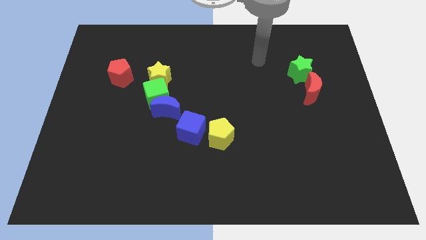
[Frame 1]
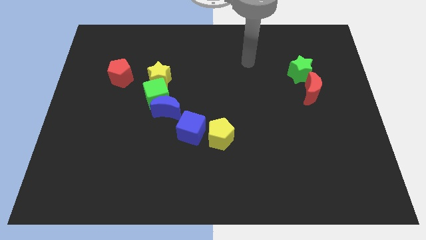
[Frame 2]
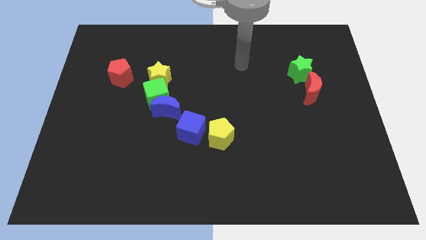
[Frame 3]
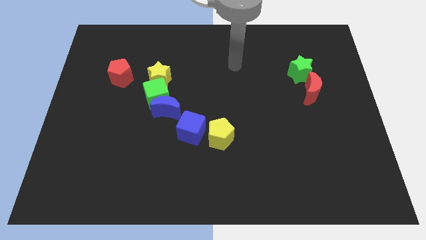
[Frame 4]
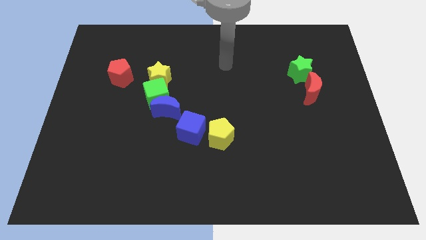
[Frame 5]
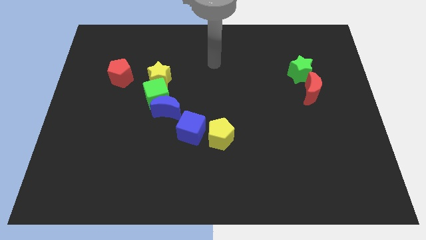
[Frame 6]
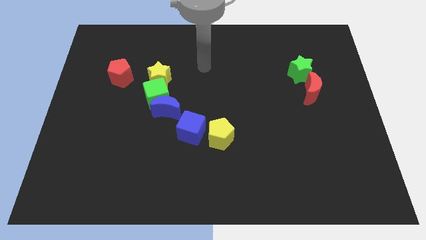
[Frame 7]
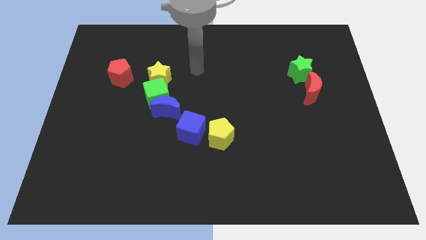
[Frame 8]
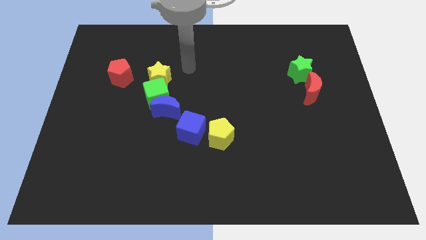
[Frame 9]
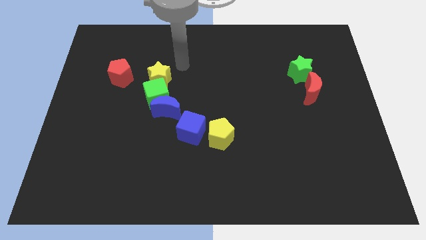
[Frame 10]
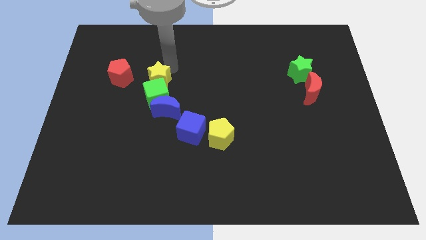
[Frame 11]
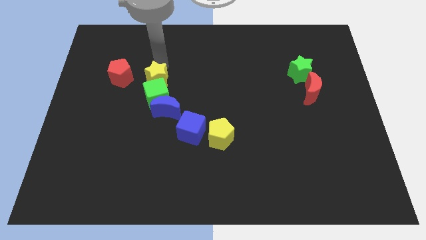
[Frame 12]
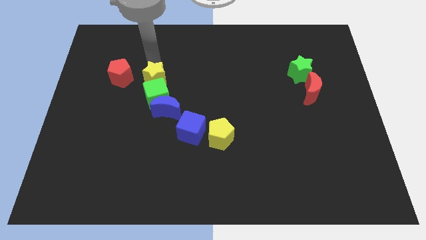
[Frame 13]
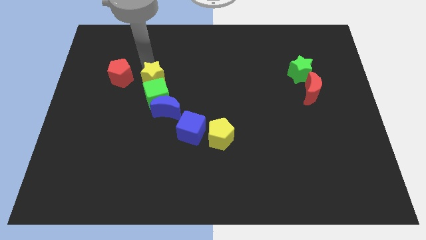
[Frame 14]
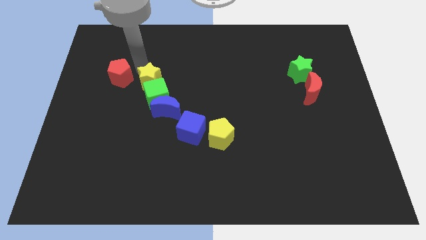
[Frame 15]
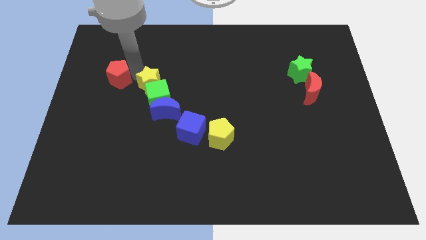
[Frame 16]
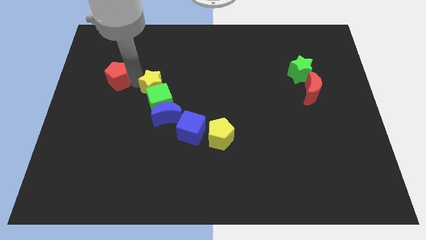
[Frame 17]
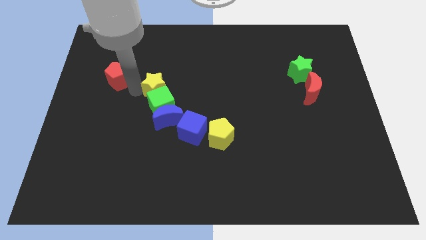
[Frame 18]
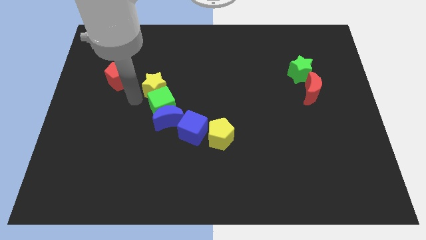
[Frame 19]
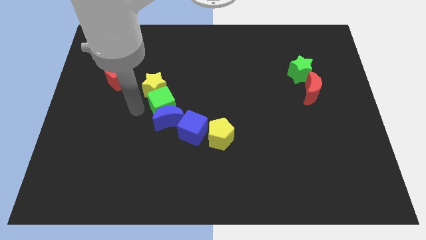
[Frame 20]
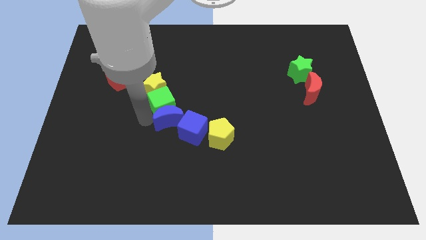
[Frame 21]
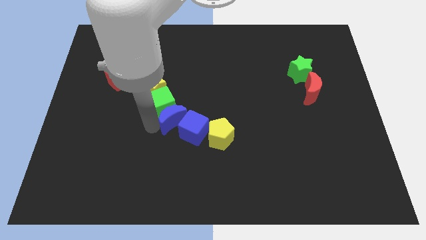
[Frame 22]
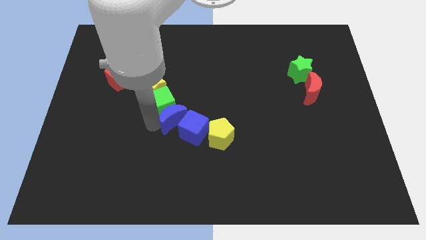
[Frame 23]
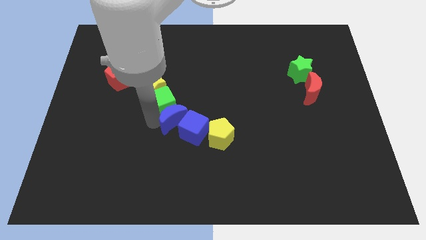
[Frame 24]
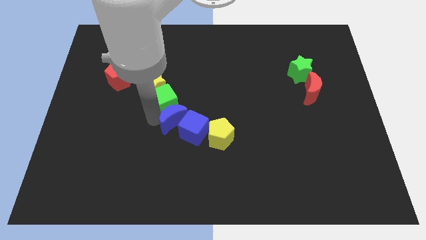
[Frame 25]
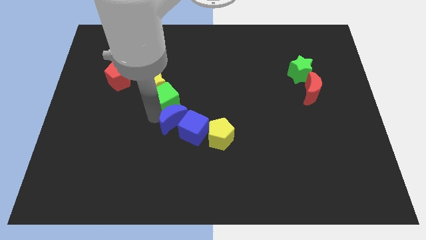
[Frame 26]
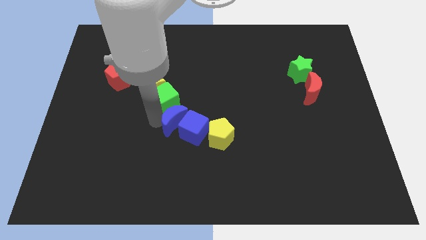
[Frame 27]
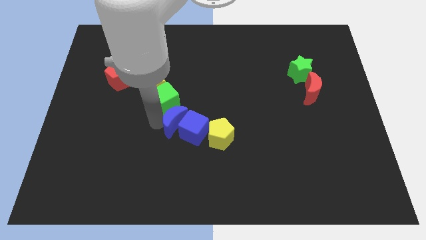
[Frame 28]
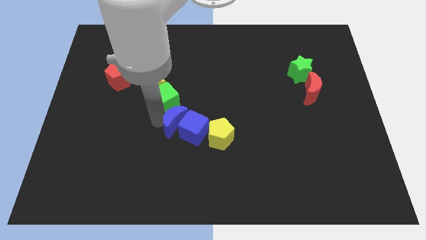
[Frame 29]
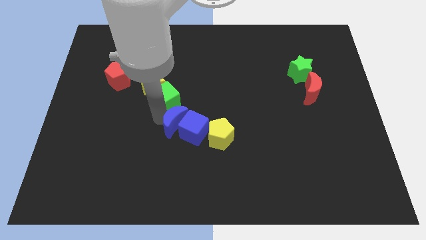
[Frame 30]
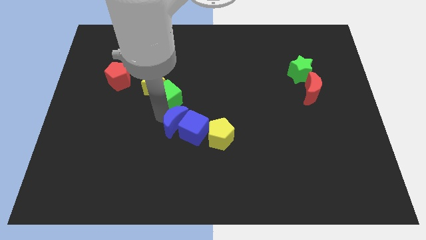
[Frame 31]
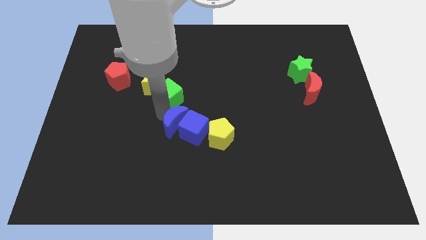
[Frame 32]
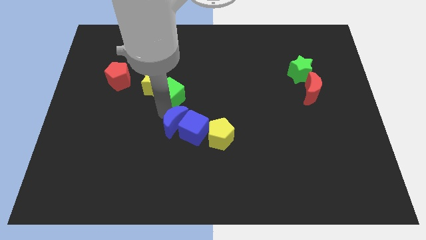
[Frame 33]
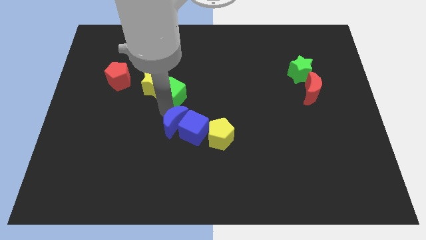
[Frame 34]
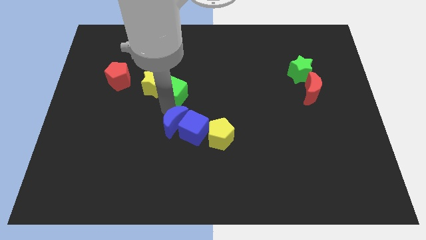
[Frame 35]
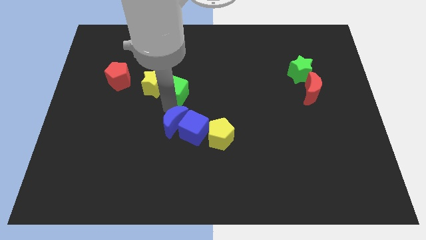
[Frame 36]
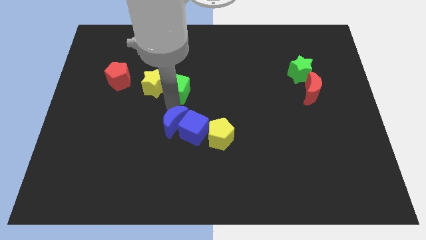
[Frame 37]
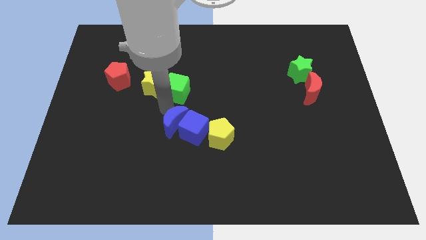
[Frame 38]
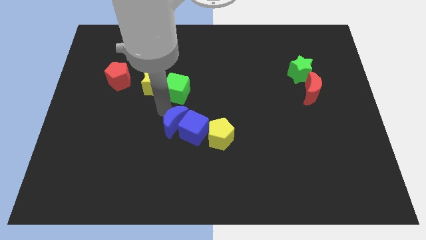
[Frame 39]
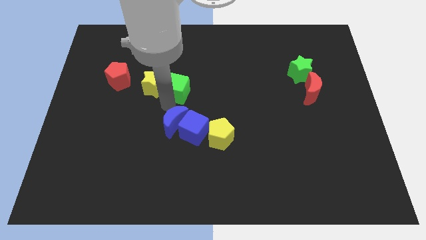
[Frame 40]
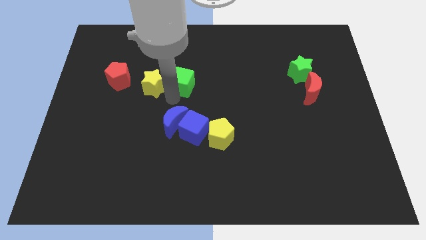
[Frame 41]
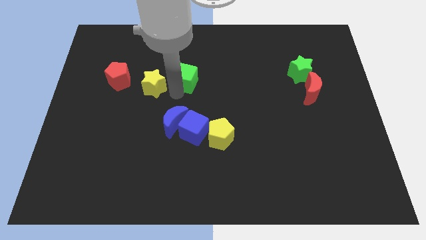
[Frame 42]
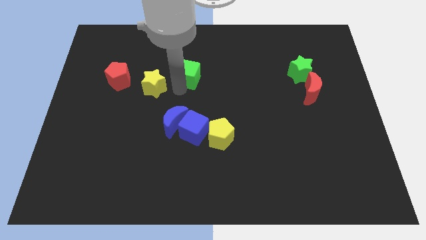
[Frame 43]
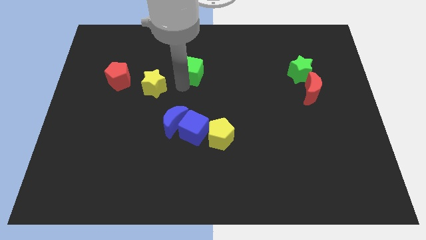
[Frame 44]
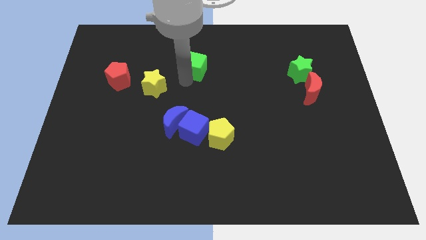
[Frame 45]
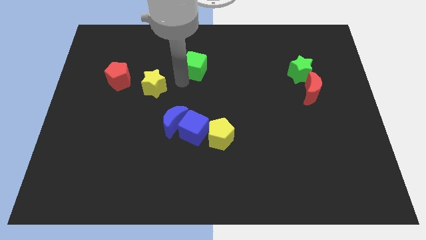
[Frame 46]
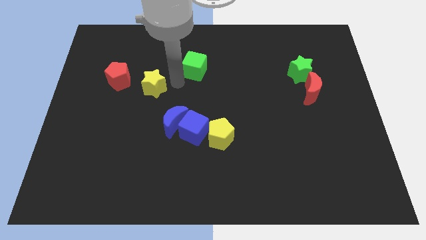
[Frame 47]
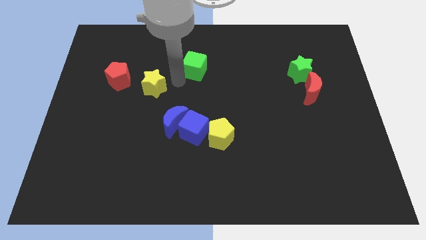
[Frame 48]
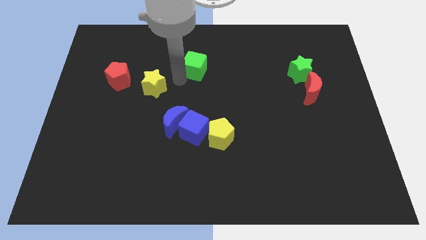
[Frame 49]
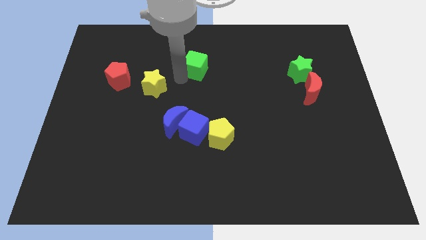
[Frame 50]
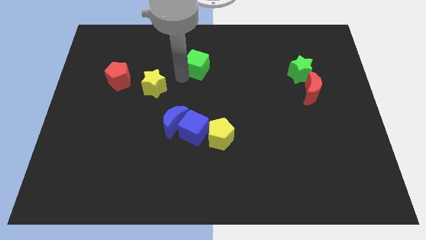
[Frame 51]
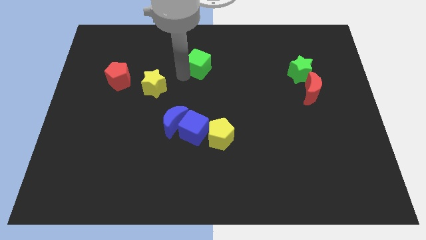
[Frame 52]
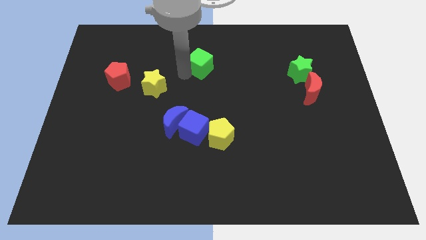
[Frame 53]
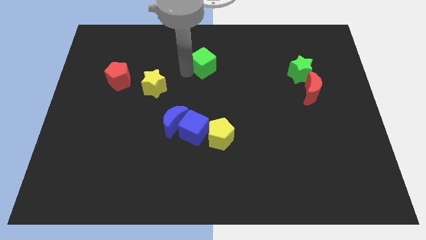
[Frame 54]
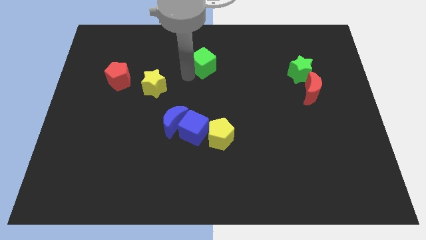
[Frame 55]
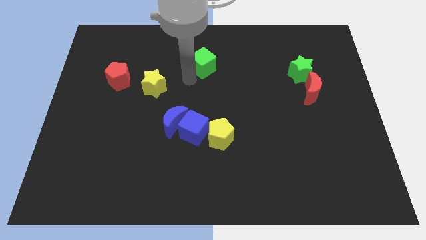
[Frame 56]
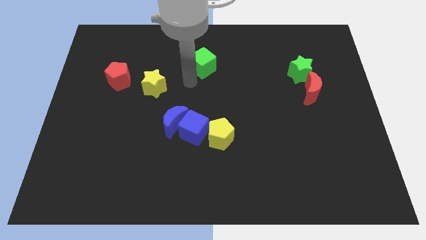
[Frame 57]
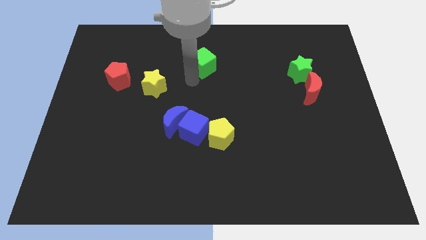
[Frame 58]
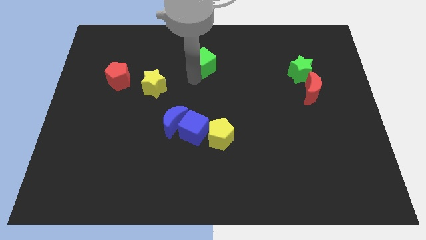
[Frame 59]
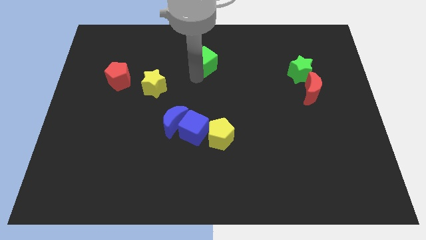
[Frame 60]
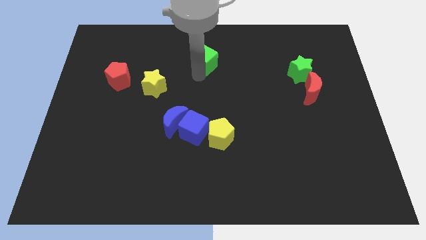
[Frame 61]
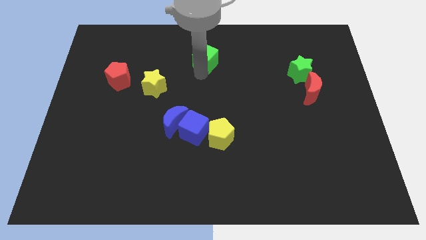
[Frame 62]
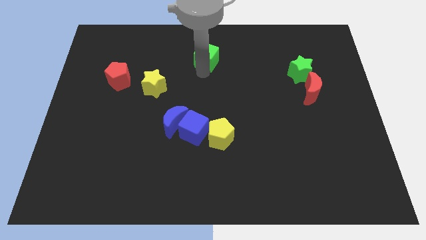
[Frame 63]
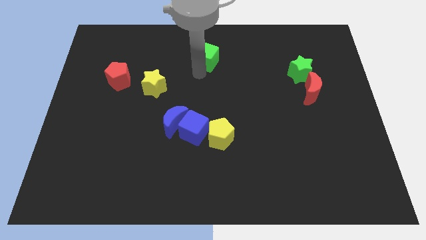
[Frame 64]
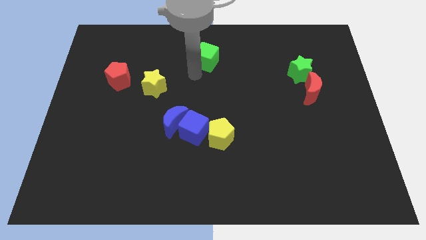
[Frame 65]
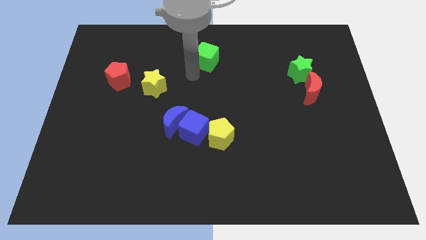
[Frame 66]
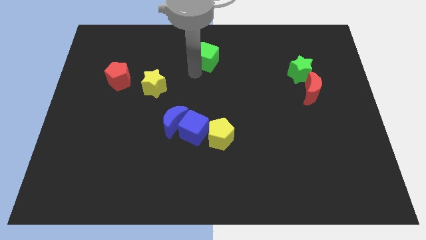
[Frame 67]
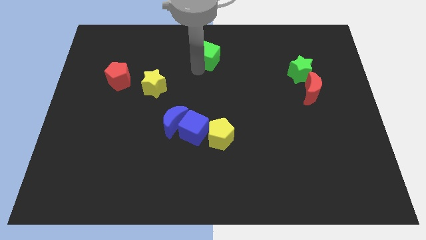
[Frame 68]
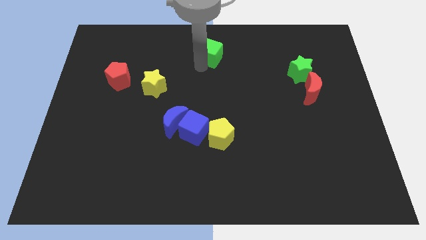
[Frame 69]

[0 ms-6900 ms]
move the green cube to the top side
